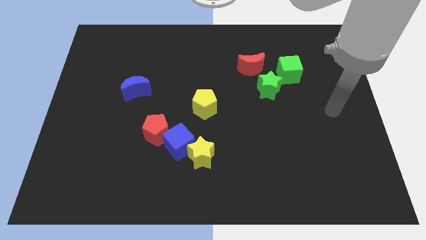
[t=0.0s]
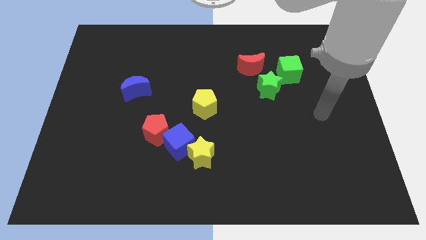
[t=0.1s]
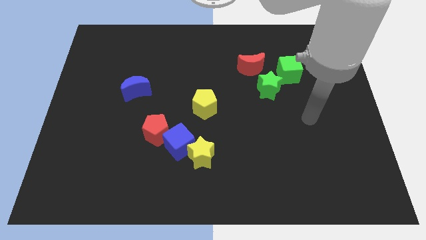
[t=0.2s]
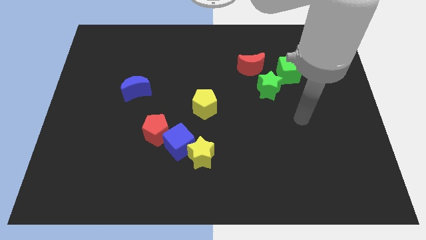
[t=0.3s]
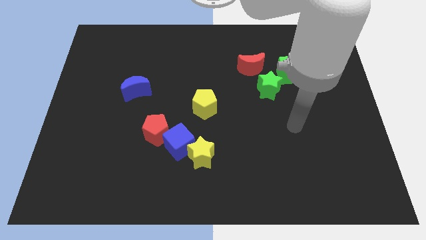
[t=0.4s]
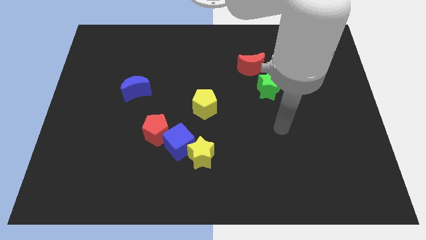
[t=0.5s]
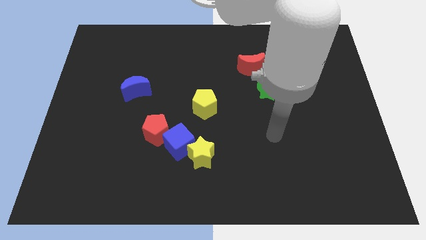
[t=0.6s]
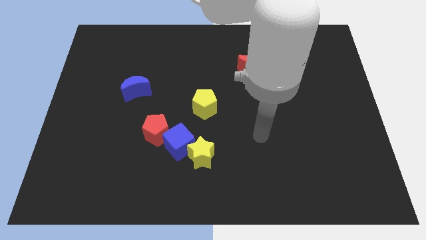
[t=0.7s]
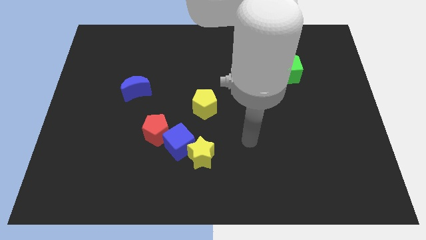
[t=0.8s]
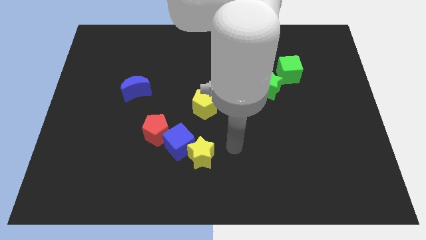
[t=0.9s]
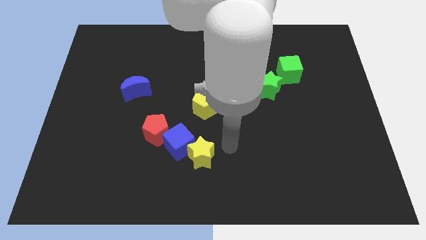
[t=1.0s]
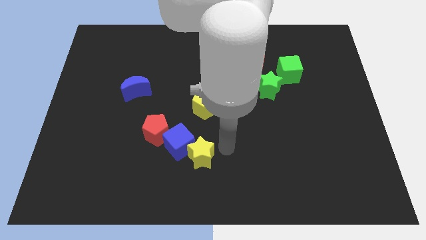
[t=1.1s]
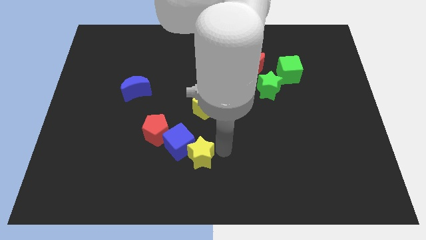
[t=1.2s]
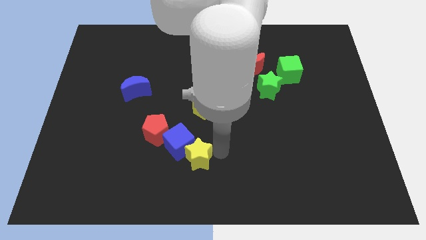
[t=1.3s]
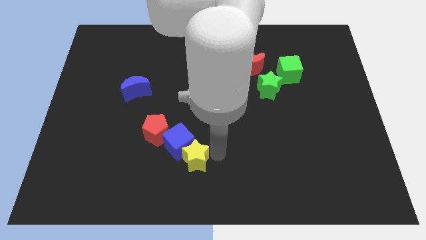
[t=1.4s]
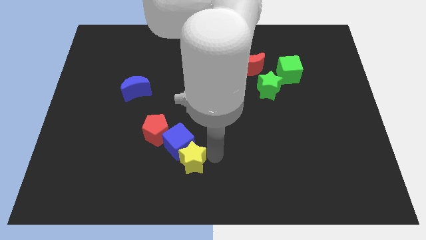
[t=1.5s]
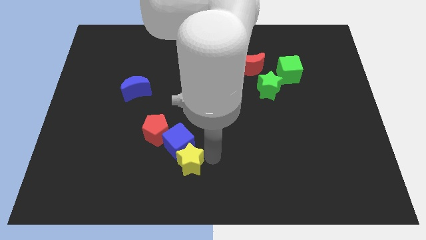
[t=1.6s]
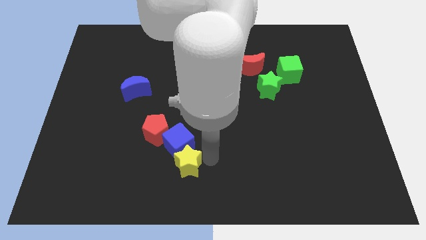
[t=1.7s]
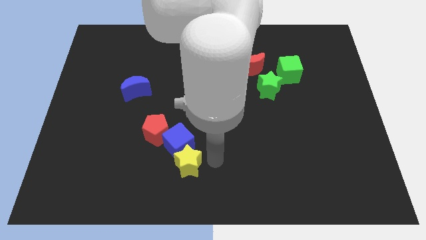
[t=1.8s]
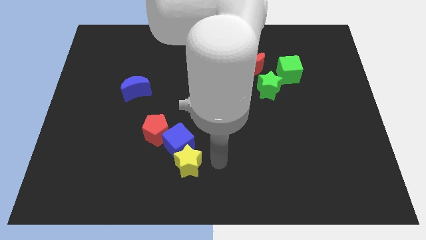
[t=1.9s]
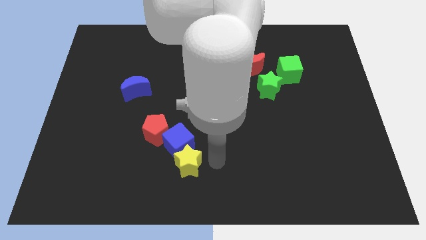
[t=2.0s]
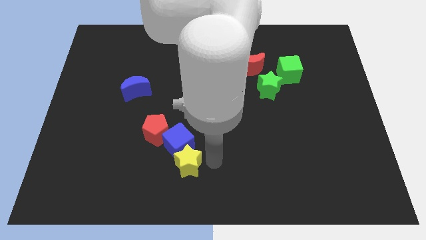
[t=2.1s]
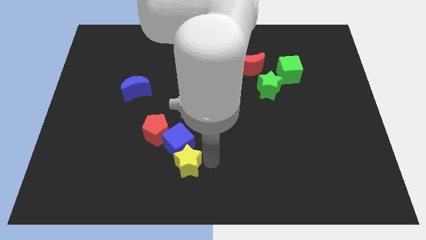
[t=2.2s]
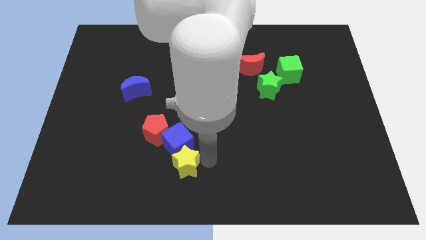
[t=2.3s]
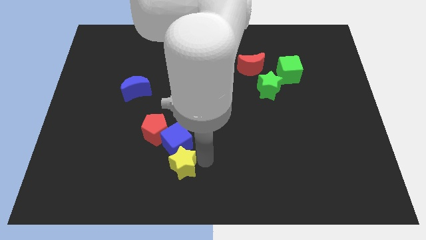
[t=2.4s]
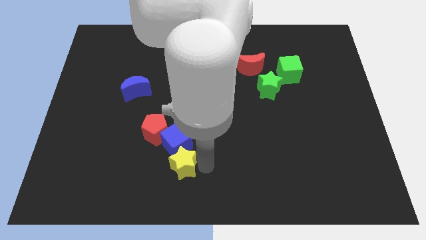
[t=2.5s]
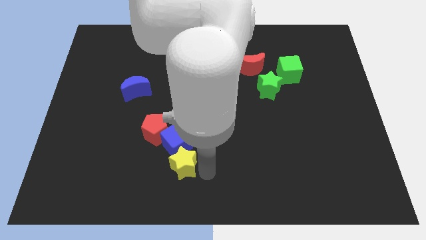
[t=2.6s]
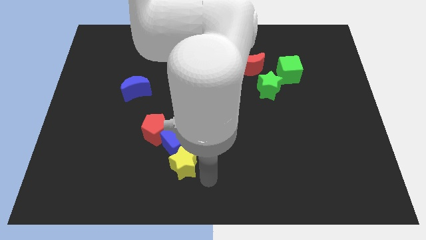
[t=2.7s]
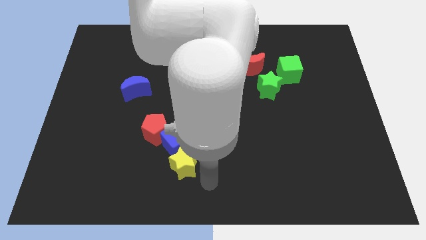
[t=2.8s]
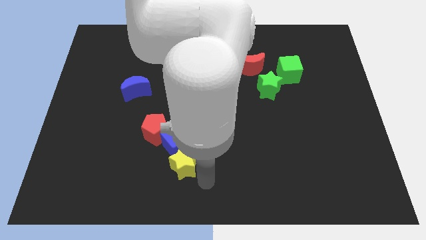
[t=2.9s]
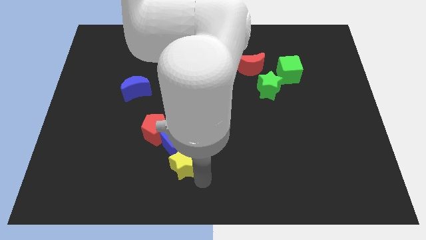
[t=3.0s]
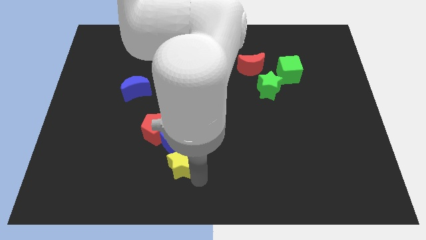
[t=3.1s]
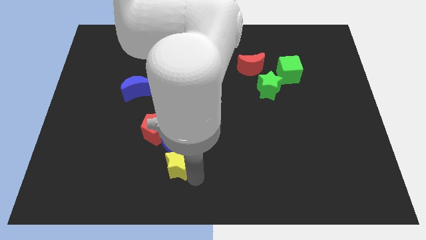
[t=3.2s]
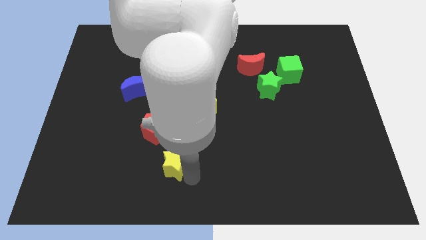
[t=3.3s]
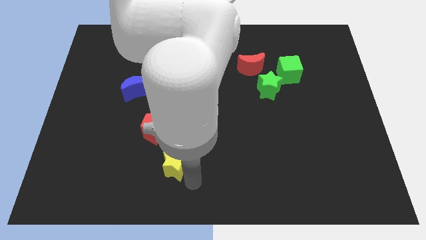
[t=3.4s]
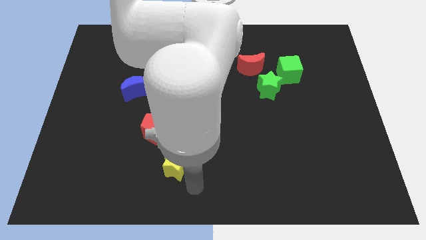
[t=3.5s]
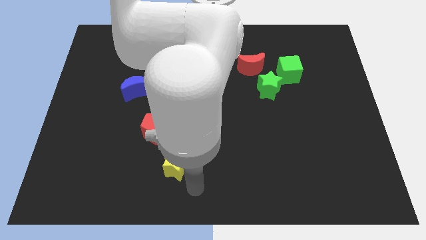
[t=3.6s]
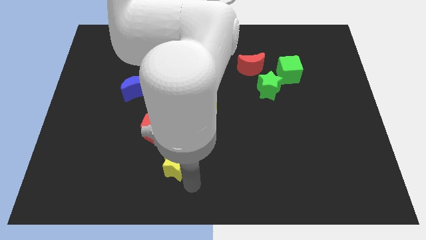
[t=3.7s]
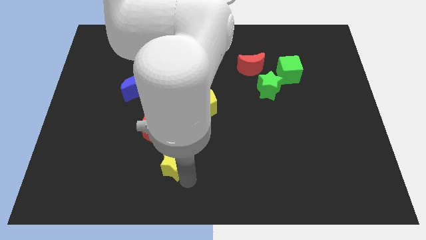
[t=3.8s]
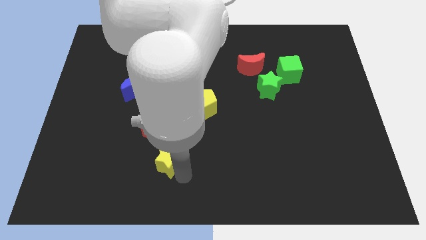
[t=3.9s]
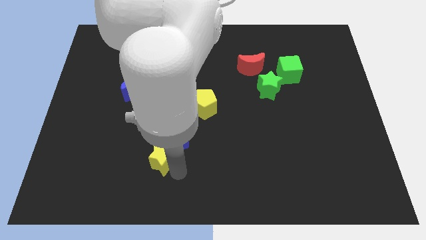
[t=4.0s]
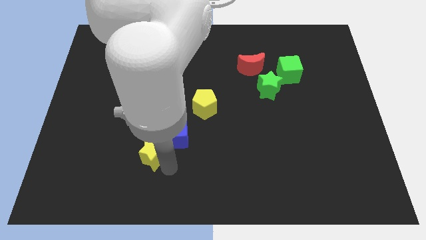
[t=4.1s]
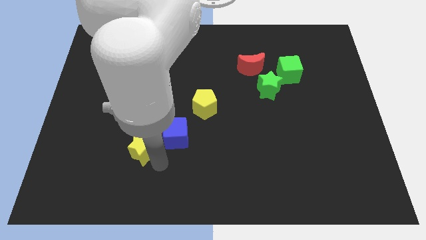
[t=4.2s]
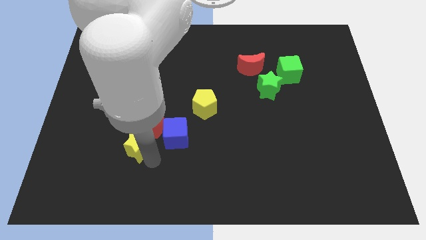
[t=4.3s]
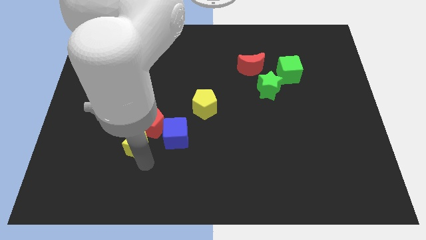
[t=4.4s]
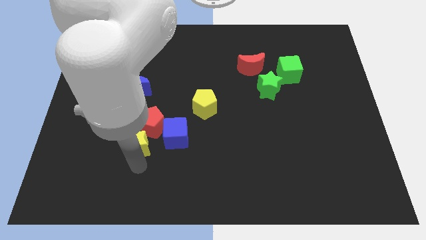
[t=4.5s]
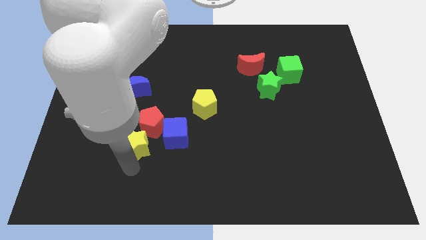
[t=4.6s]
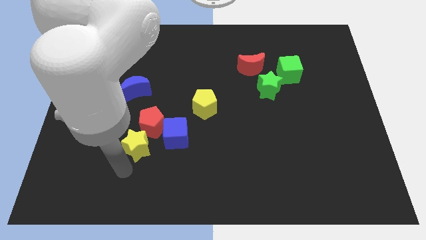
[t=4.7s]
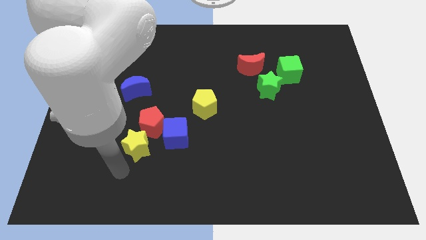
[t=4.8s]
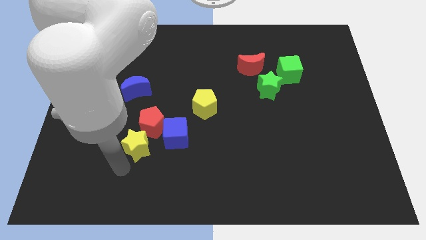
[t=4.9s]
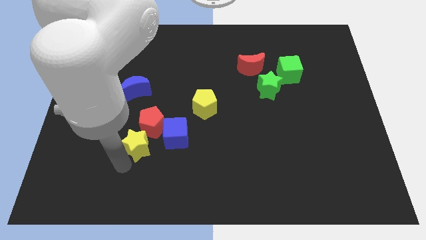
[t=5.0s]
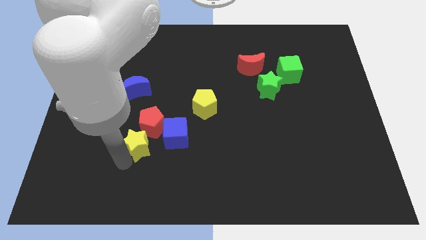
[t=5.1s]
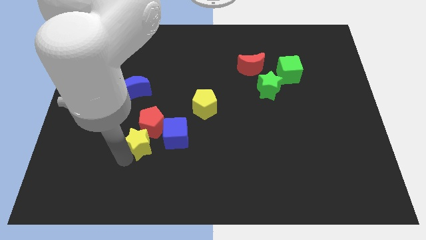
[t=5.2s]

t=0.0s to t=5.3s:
slide the yellow star towards the red pentagon

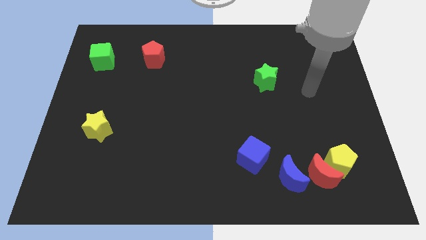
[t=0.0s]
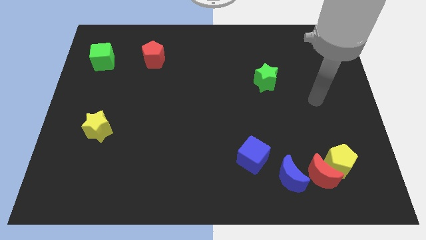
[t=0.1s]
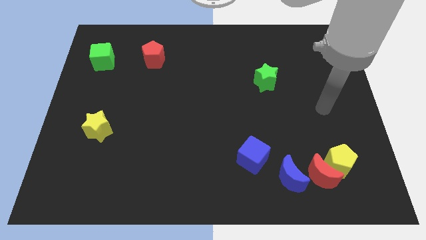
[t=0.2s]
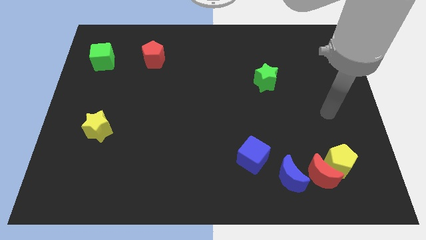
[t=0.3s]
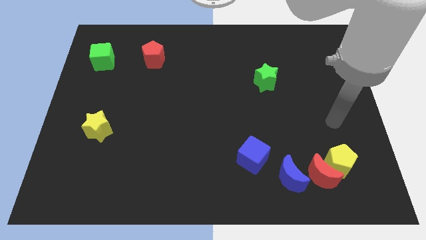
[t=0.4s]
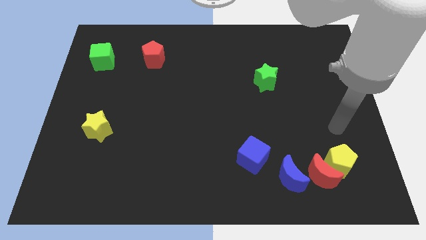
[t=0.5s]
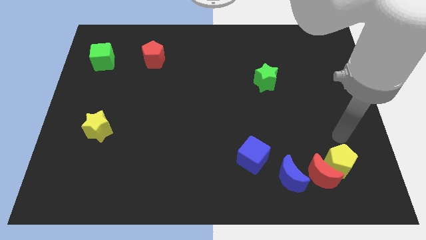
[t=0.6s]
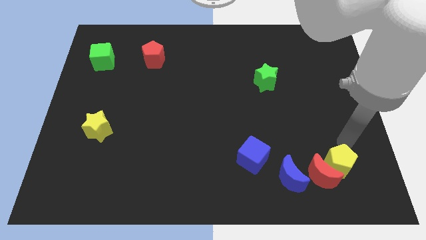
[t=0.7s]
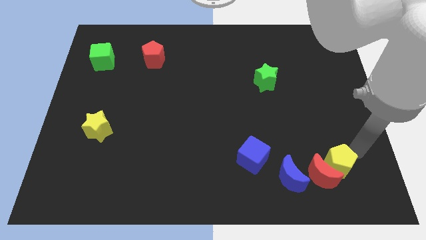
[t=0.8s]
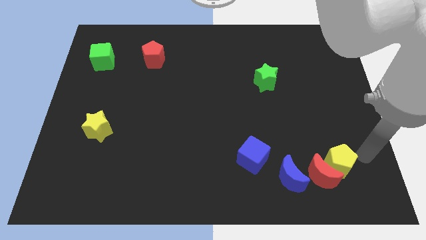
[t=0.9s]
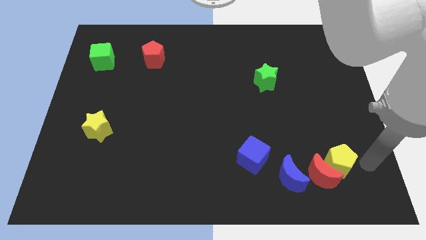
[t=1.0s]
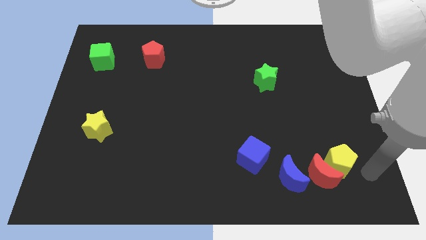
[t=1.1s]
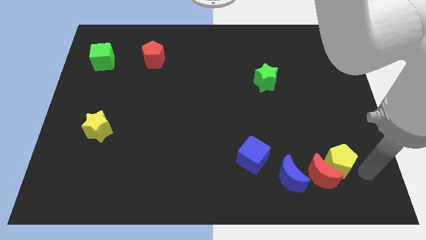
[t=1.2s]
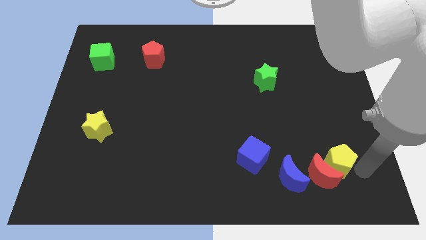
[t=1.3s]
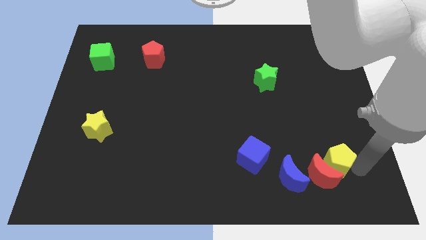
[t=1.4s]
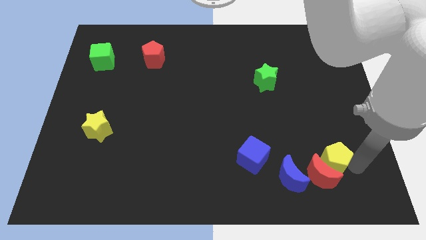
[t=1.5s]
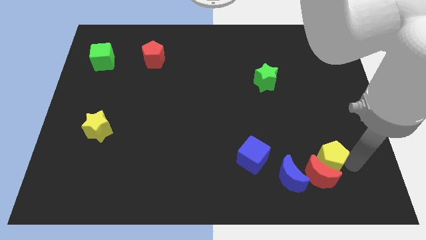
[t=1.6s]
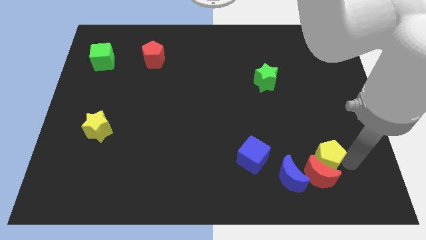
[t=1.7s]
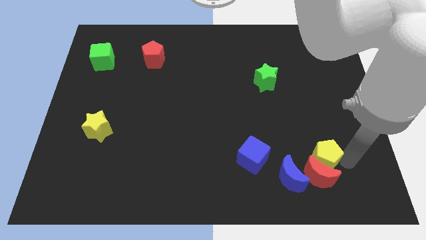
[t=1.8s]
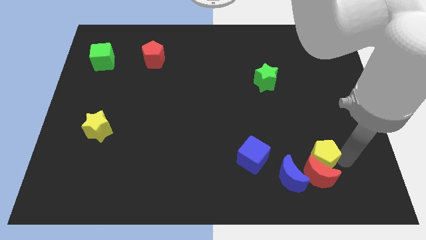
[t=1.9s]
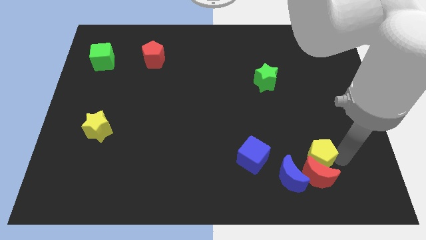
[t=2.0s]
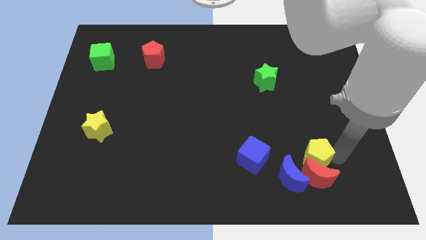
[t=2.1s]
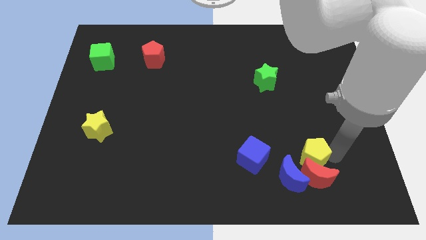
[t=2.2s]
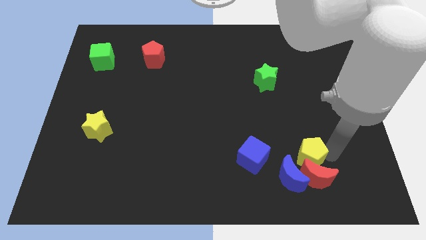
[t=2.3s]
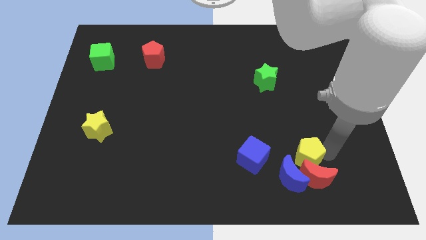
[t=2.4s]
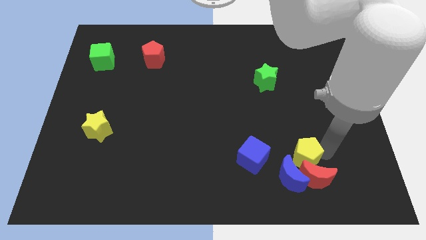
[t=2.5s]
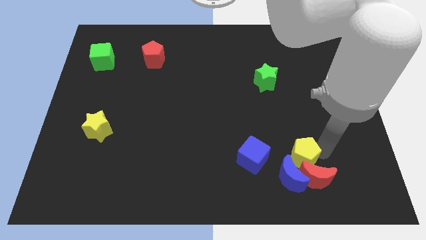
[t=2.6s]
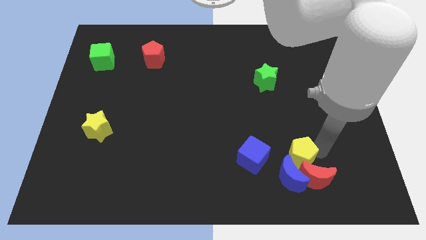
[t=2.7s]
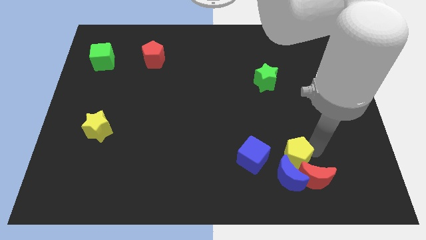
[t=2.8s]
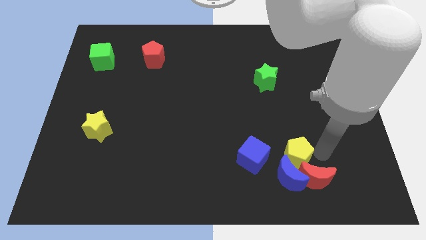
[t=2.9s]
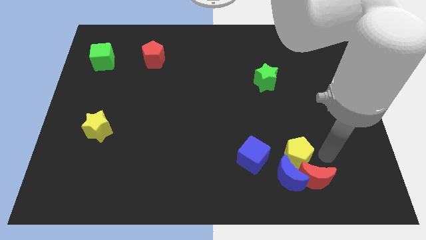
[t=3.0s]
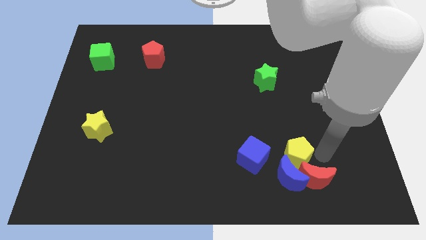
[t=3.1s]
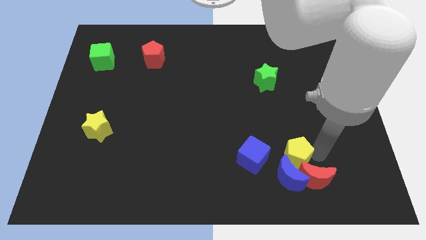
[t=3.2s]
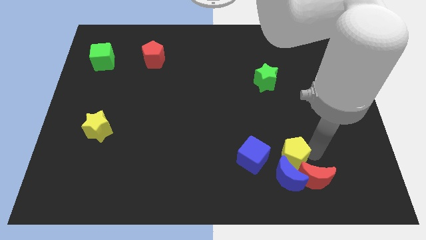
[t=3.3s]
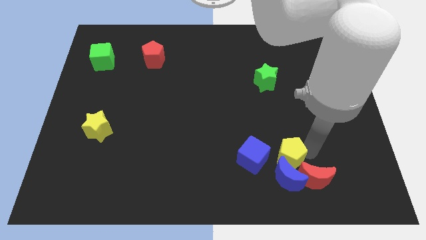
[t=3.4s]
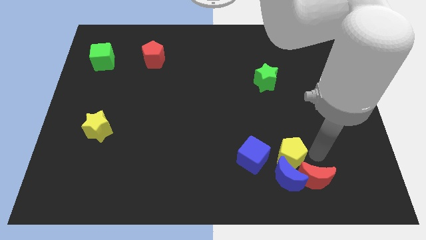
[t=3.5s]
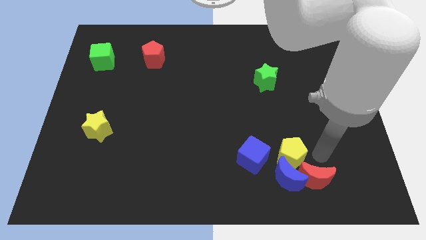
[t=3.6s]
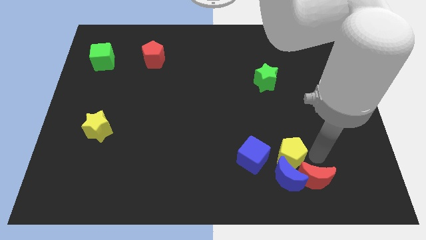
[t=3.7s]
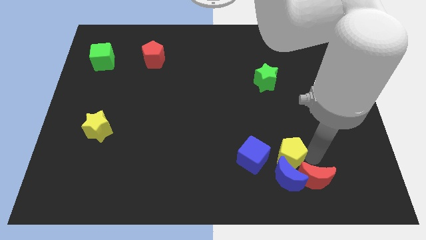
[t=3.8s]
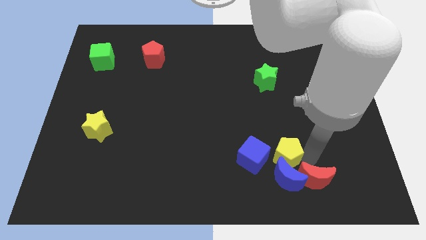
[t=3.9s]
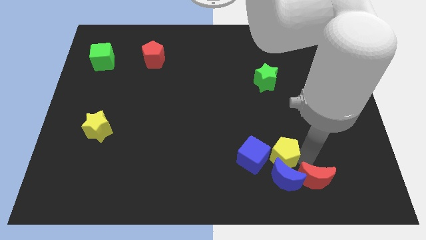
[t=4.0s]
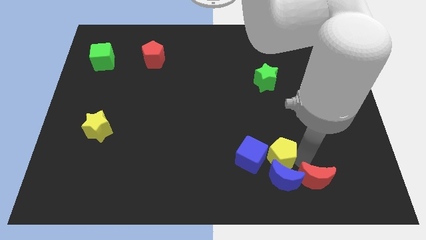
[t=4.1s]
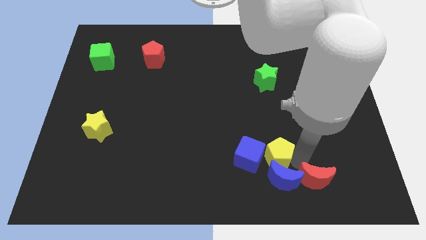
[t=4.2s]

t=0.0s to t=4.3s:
put the yellow pentagon close to the blue cube
